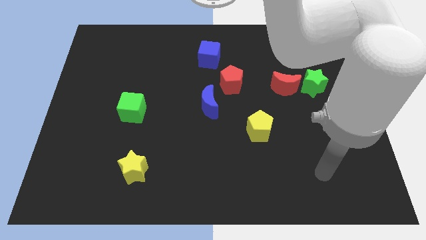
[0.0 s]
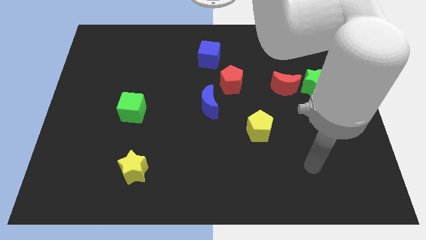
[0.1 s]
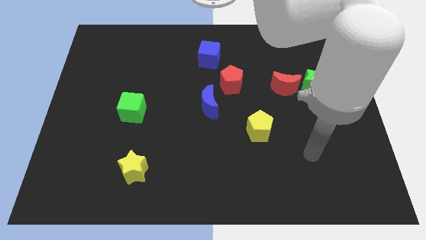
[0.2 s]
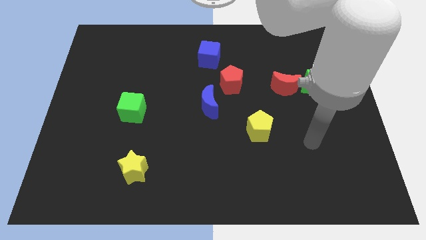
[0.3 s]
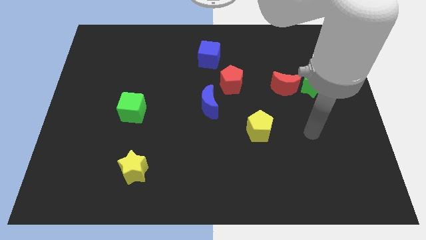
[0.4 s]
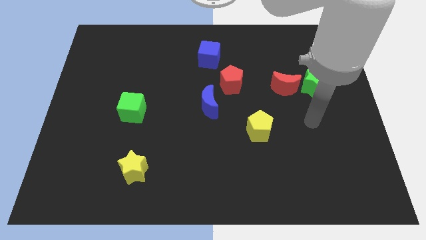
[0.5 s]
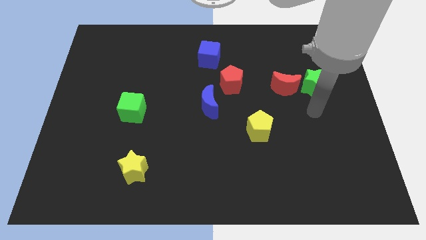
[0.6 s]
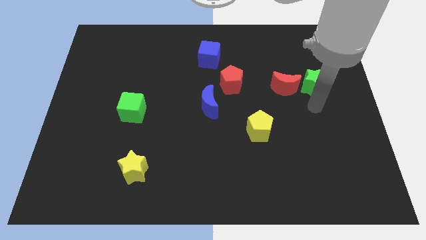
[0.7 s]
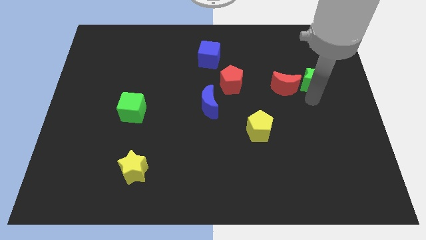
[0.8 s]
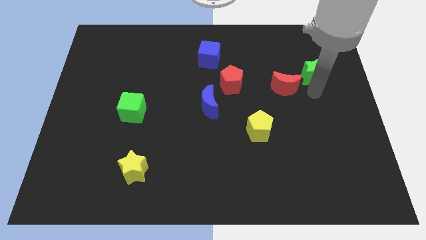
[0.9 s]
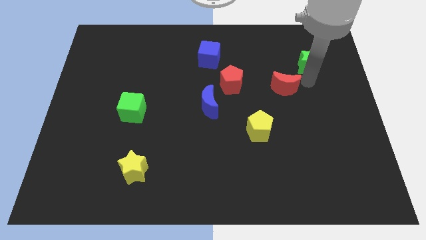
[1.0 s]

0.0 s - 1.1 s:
pull the red moon apart from the green star

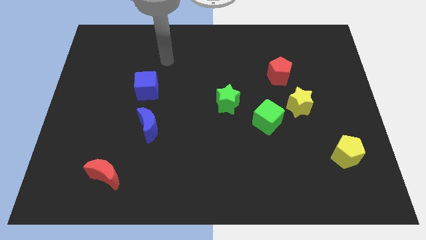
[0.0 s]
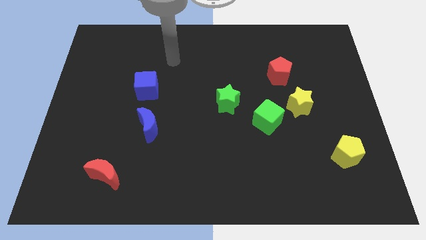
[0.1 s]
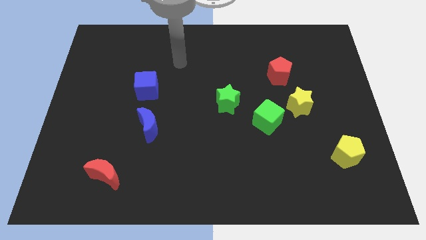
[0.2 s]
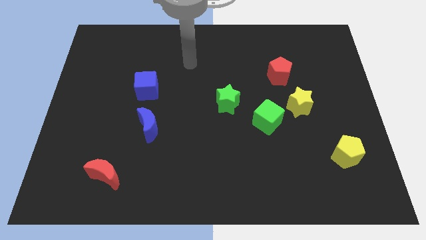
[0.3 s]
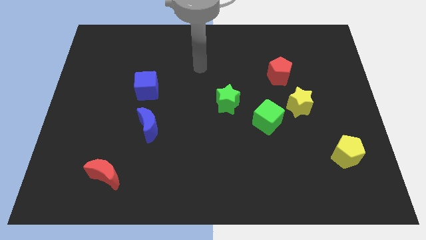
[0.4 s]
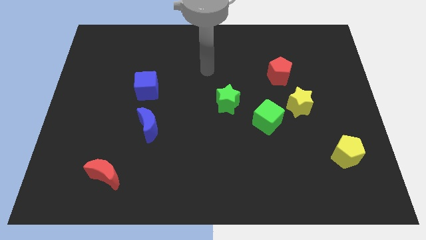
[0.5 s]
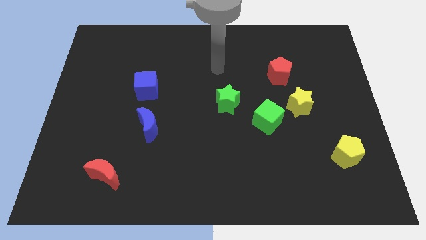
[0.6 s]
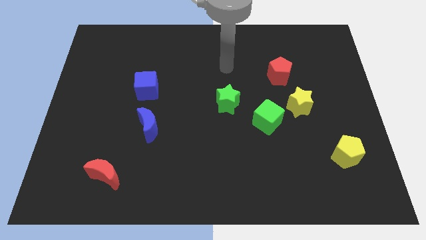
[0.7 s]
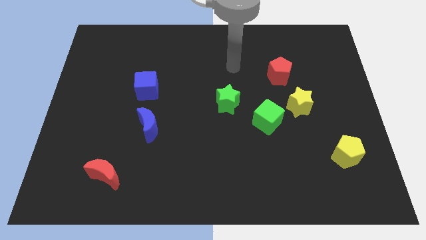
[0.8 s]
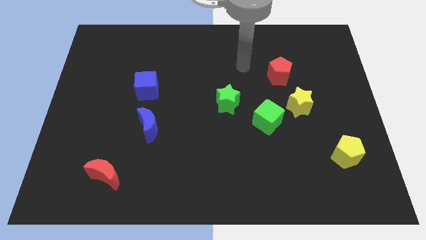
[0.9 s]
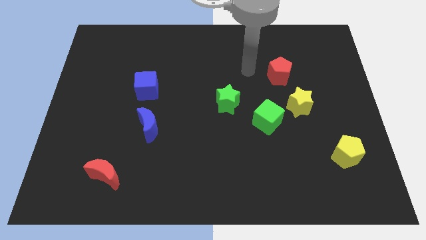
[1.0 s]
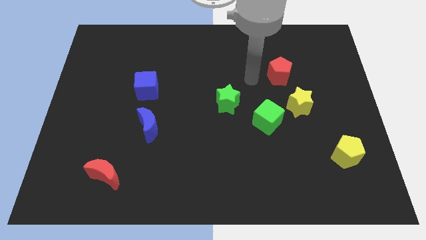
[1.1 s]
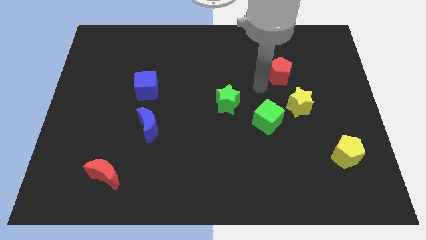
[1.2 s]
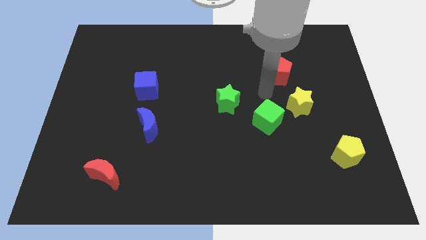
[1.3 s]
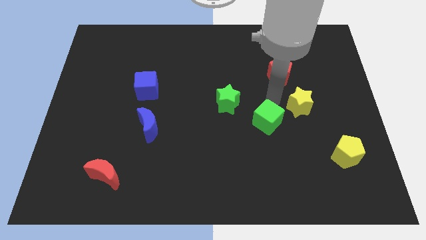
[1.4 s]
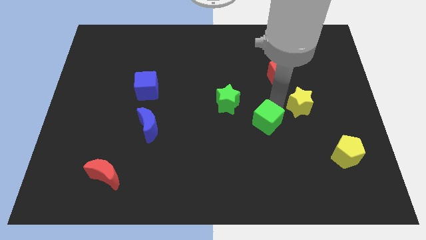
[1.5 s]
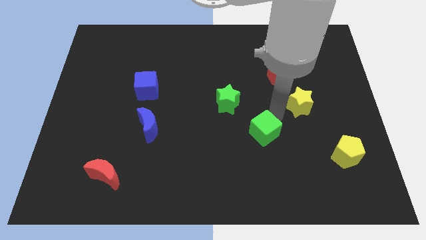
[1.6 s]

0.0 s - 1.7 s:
pull the yellow star apart from the green cube

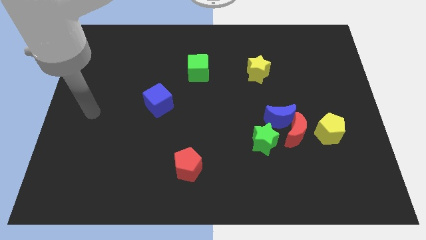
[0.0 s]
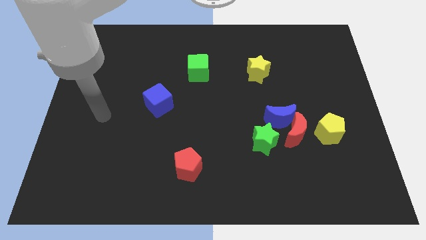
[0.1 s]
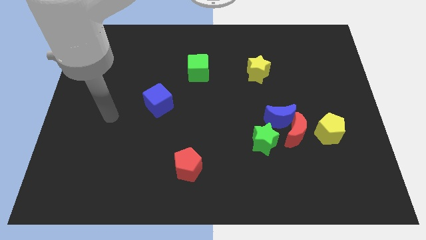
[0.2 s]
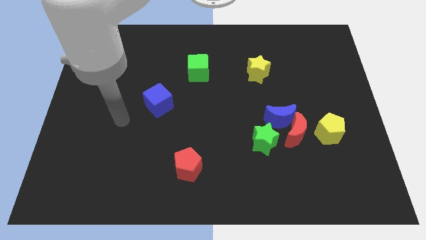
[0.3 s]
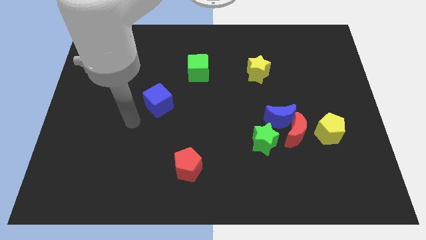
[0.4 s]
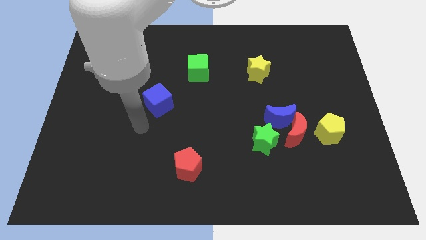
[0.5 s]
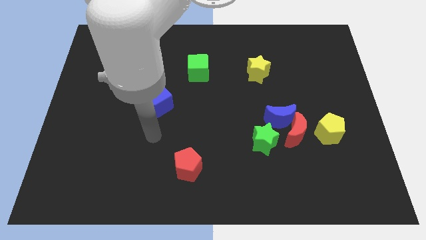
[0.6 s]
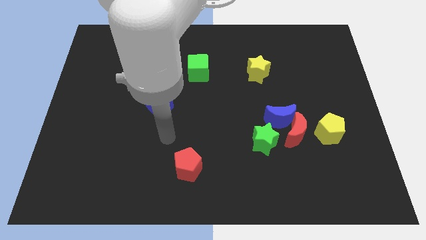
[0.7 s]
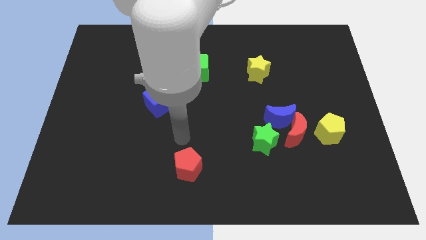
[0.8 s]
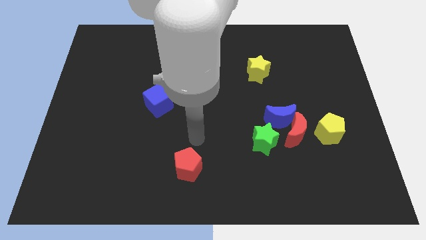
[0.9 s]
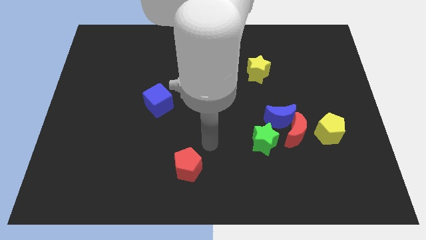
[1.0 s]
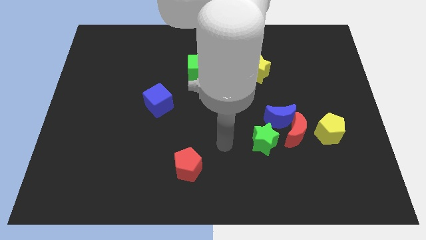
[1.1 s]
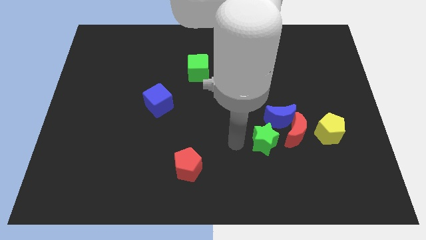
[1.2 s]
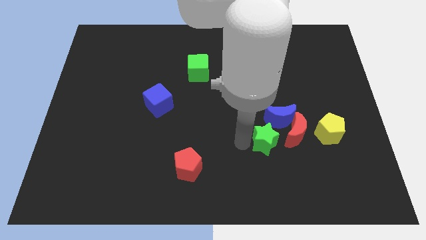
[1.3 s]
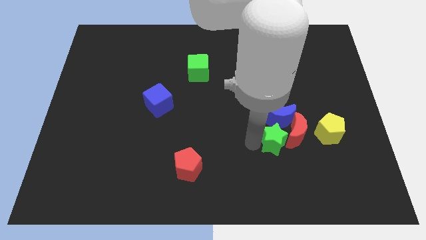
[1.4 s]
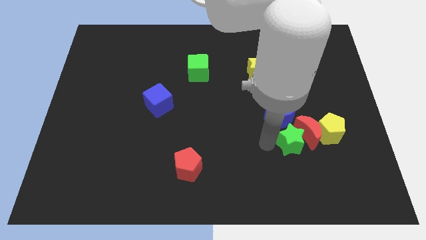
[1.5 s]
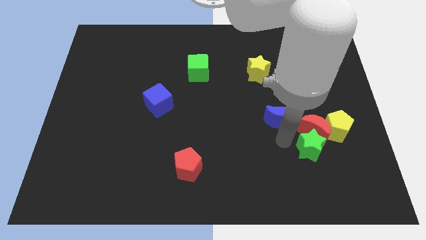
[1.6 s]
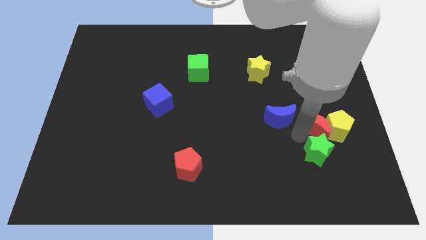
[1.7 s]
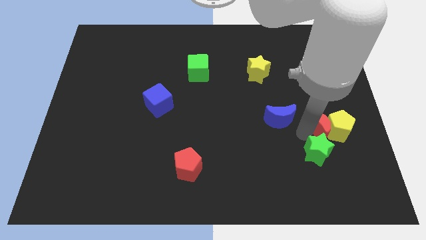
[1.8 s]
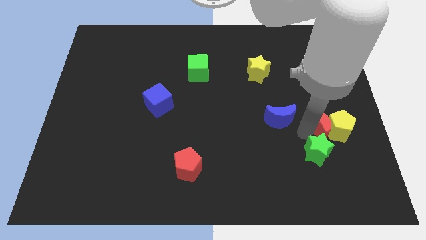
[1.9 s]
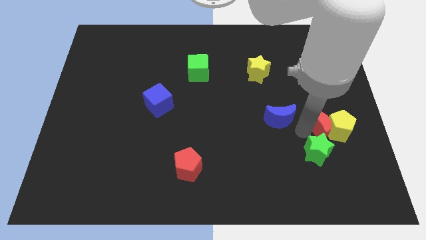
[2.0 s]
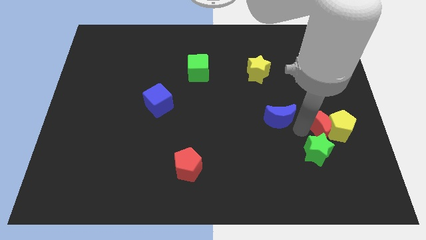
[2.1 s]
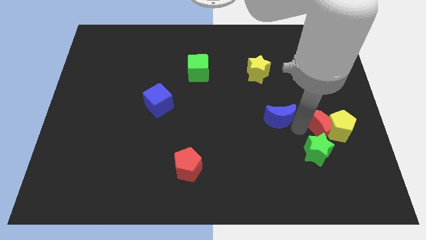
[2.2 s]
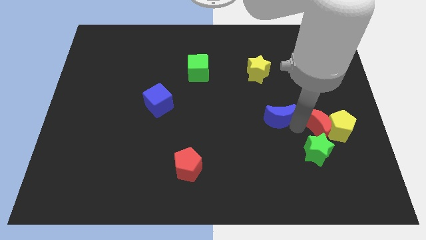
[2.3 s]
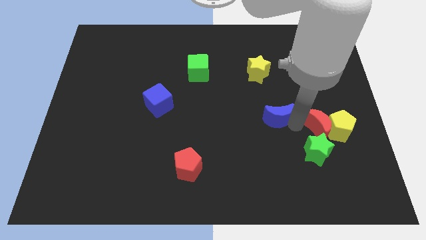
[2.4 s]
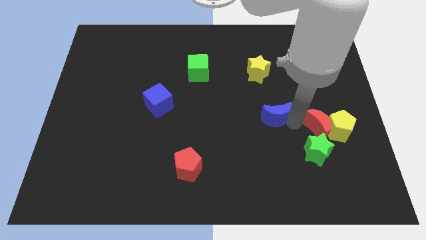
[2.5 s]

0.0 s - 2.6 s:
separate the blue moon from the red moon and green star

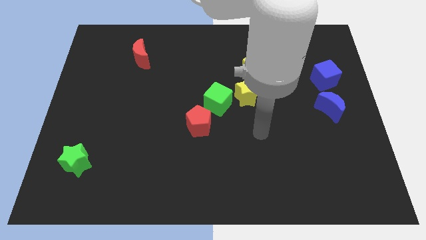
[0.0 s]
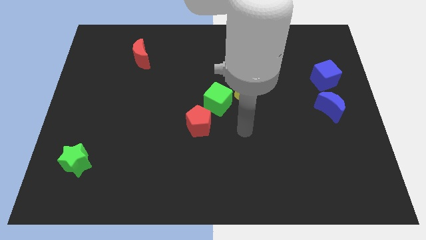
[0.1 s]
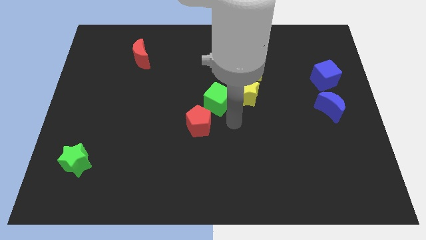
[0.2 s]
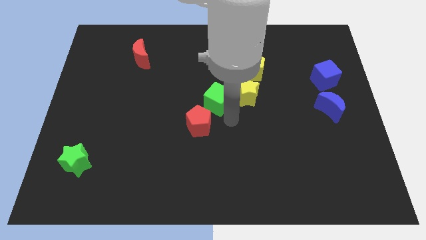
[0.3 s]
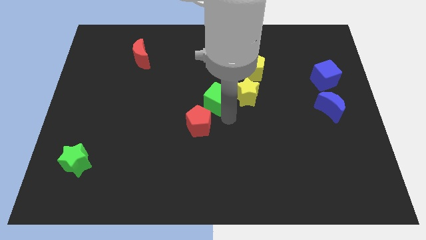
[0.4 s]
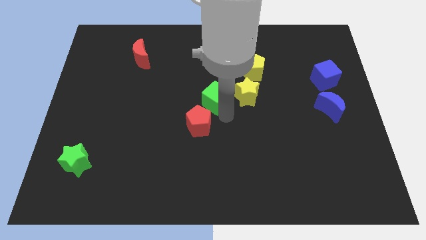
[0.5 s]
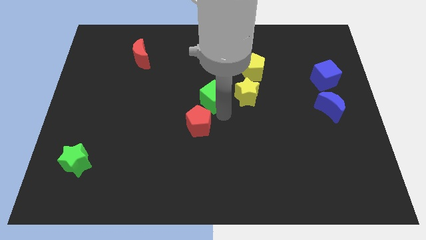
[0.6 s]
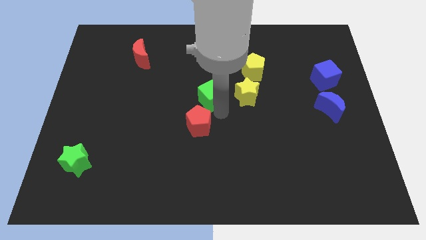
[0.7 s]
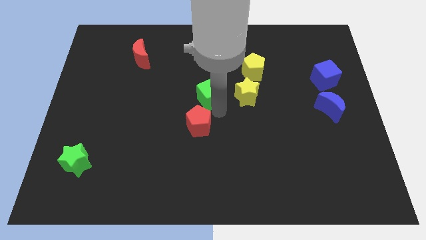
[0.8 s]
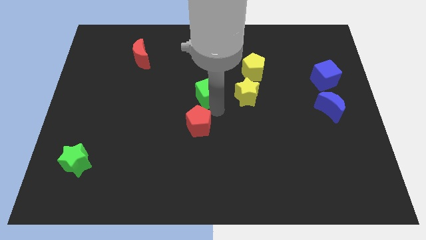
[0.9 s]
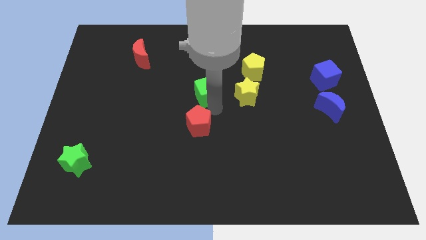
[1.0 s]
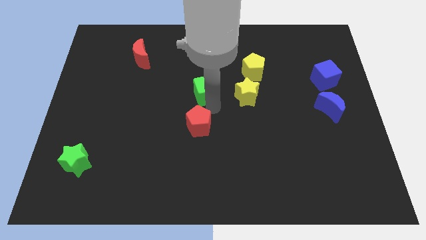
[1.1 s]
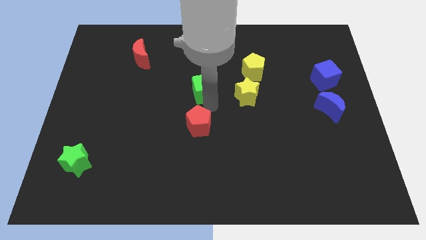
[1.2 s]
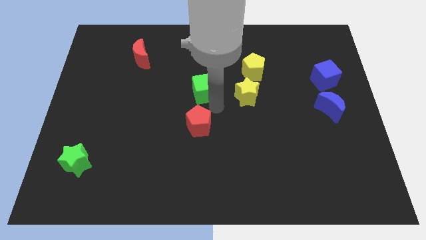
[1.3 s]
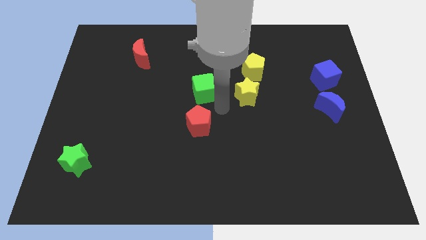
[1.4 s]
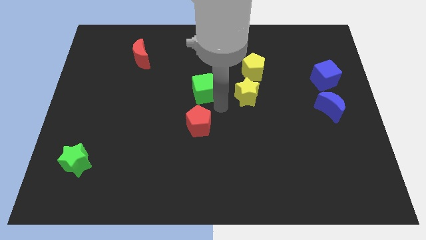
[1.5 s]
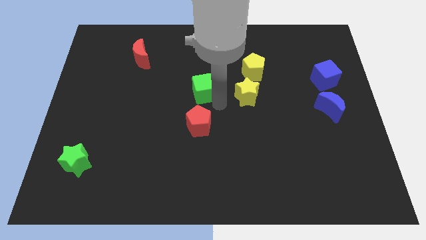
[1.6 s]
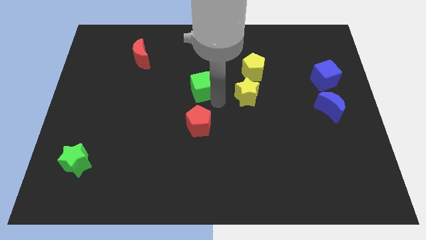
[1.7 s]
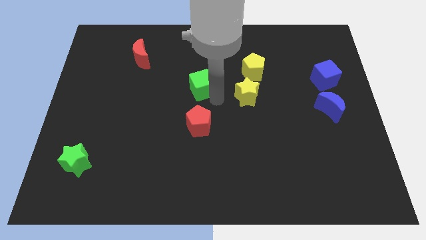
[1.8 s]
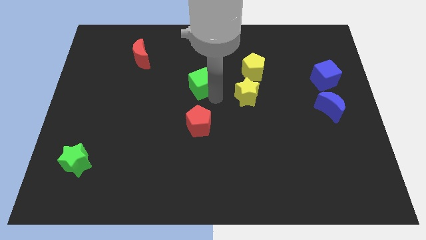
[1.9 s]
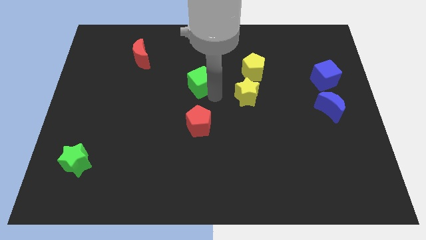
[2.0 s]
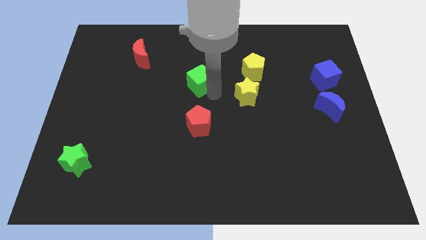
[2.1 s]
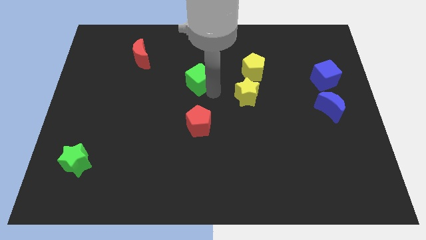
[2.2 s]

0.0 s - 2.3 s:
separate the green cube from the yellow star and red pentagon

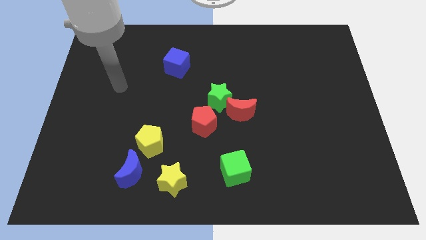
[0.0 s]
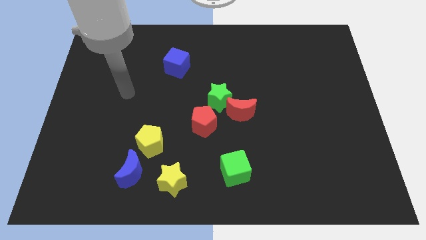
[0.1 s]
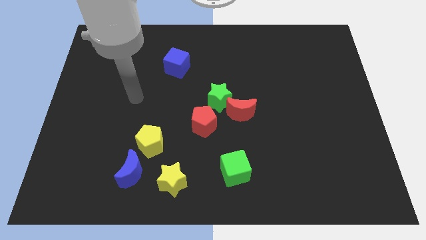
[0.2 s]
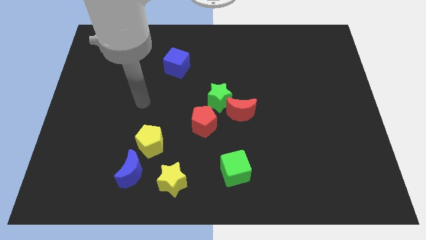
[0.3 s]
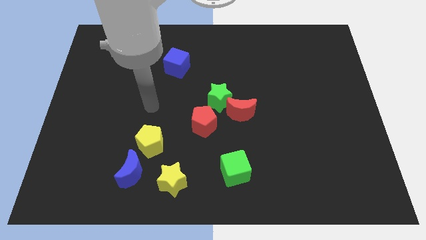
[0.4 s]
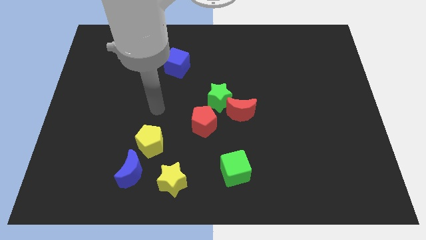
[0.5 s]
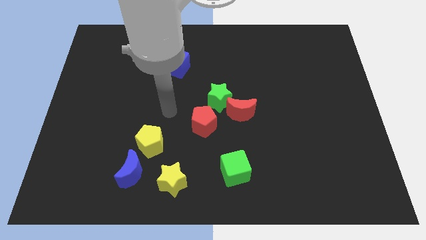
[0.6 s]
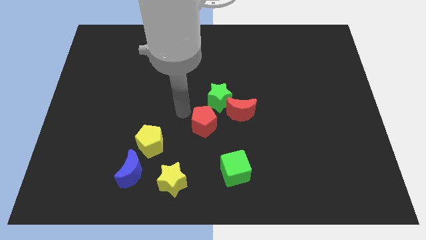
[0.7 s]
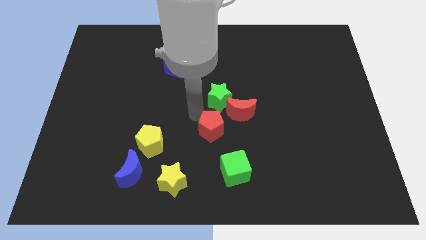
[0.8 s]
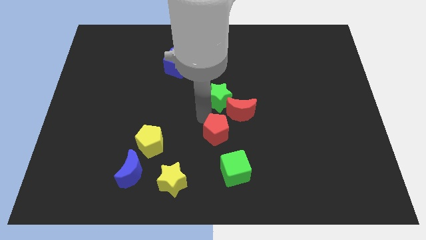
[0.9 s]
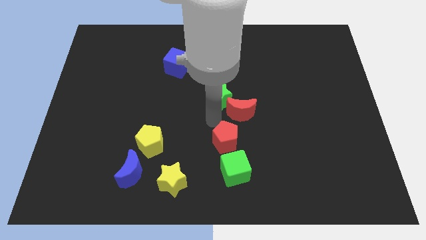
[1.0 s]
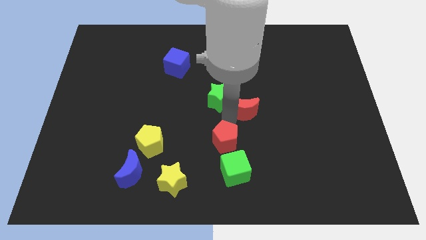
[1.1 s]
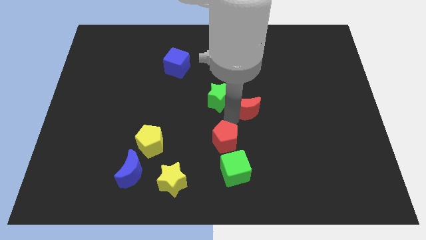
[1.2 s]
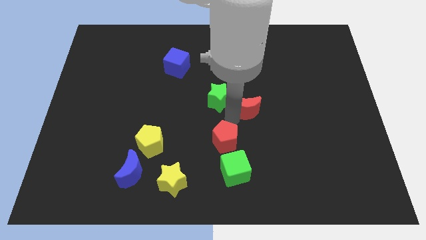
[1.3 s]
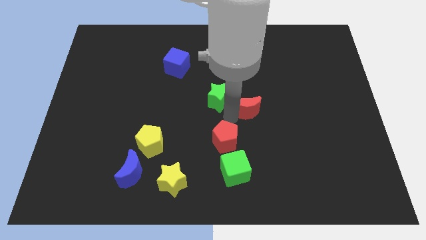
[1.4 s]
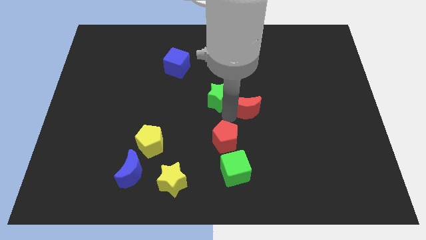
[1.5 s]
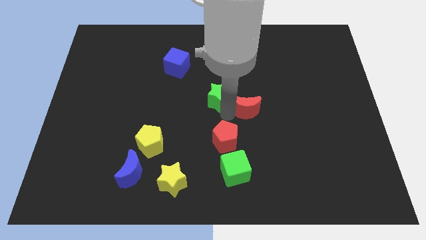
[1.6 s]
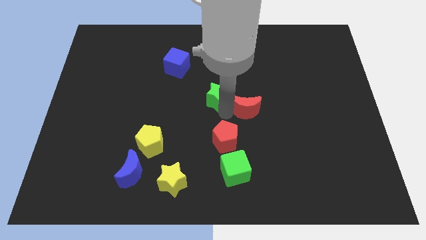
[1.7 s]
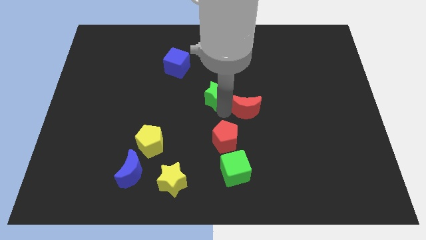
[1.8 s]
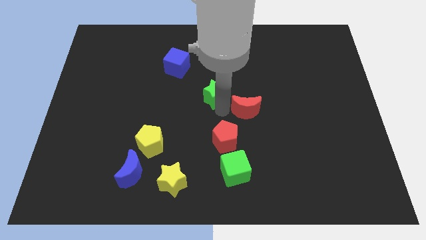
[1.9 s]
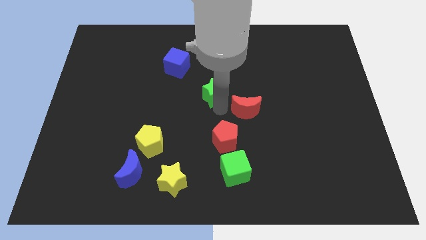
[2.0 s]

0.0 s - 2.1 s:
move the green star away from the red moon and red pentagon
